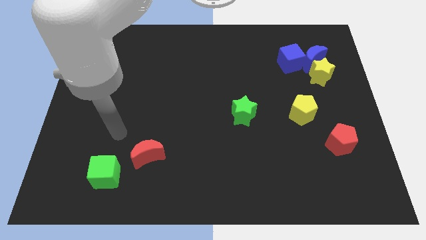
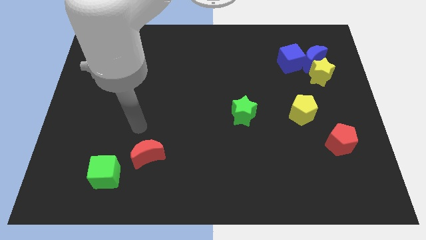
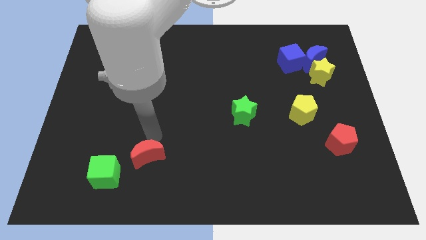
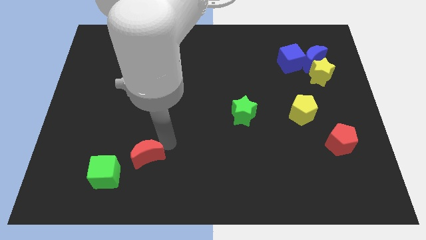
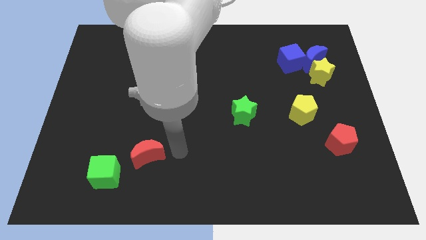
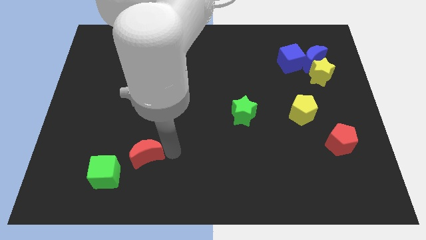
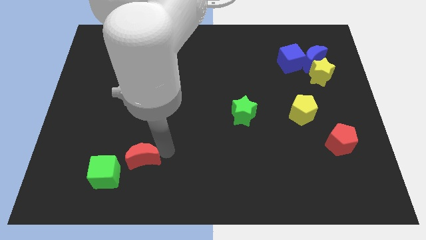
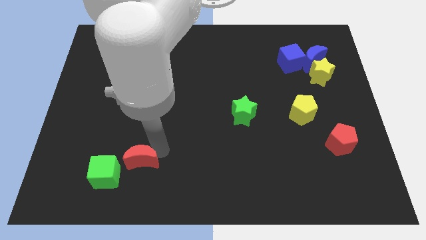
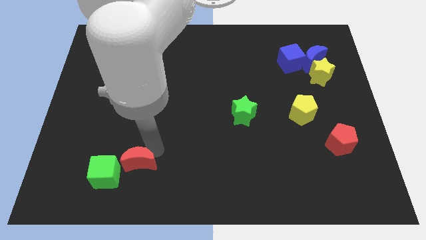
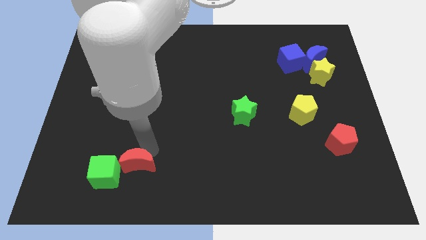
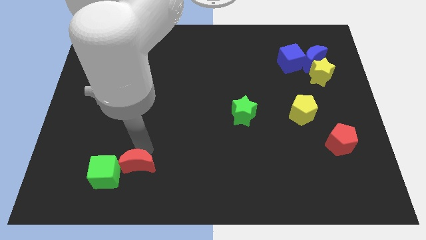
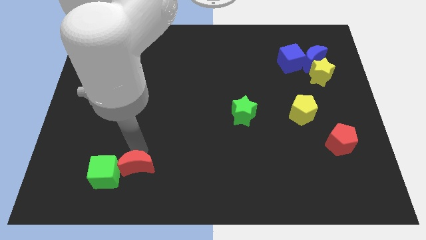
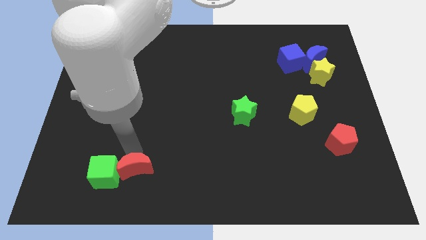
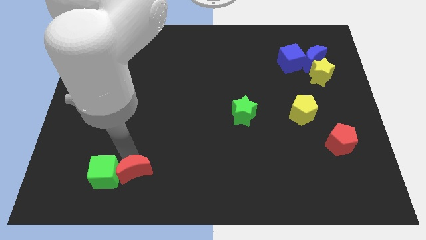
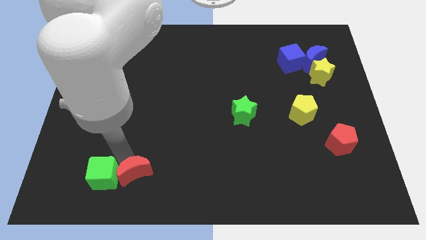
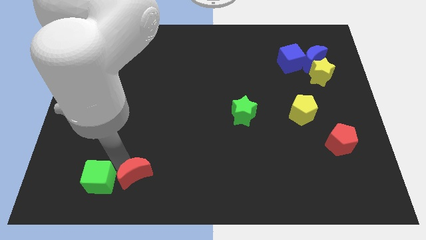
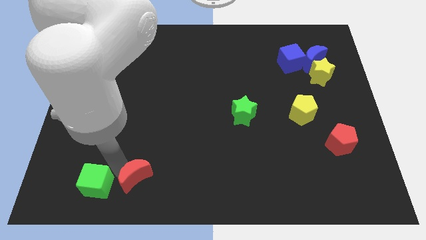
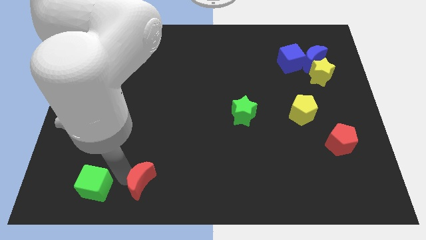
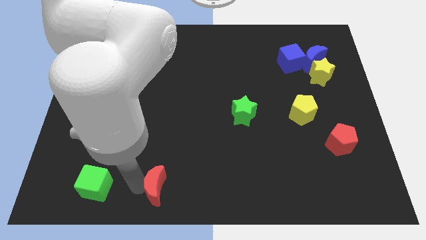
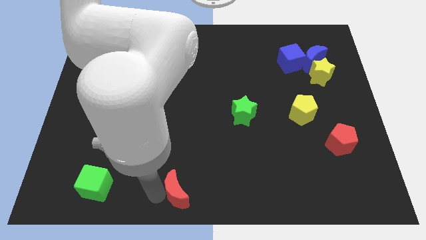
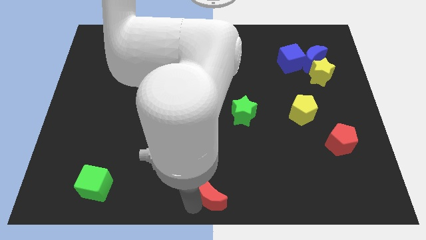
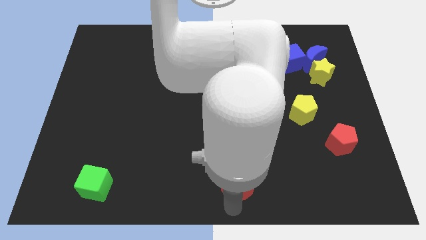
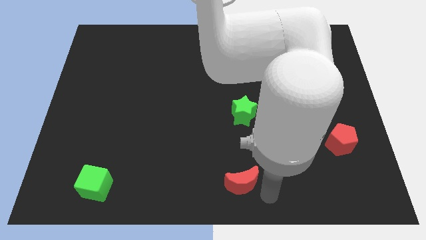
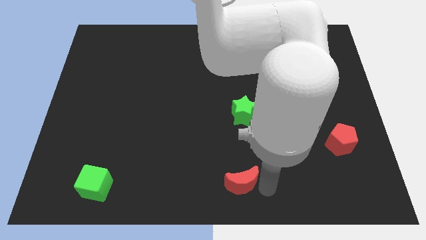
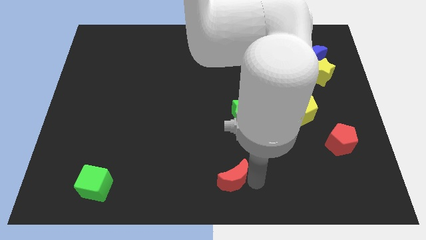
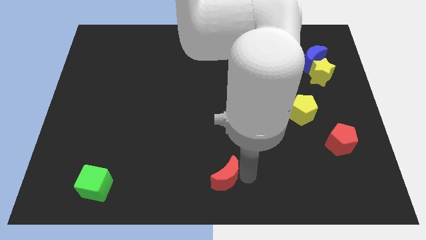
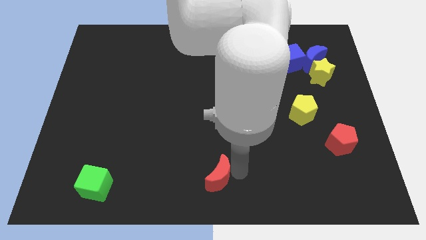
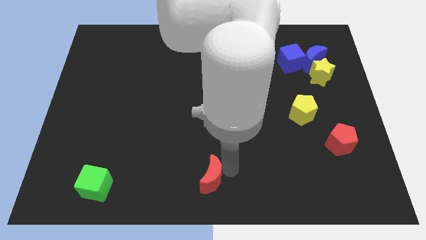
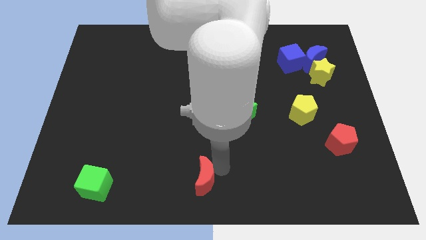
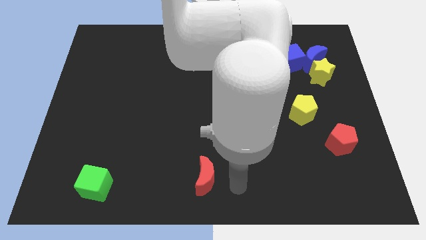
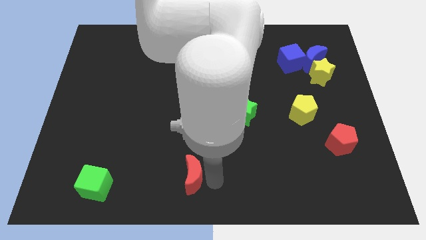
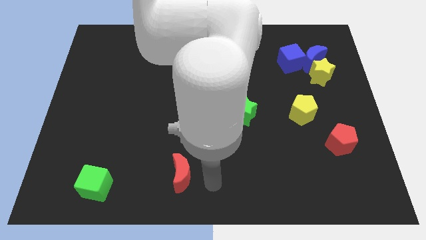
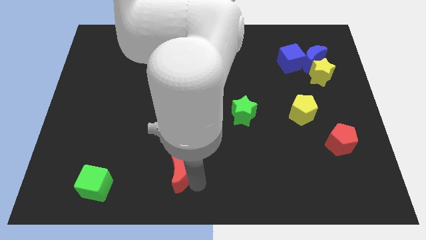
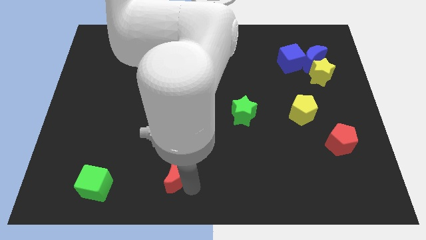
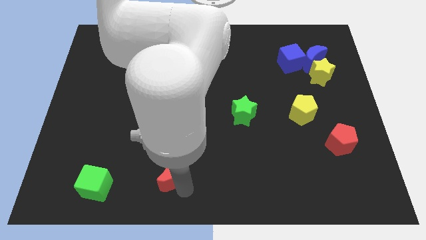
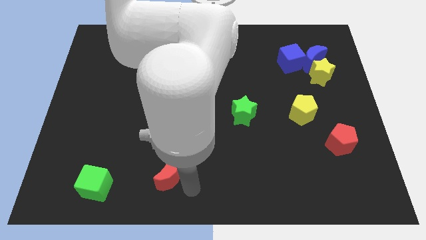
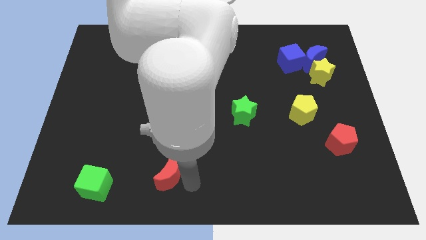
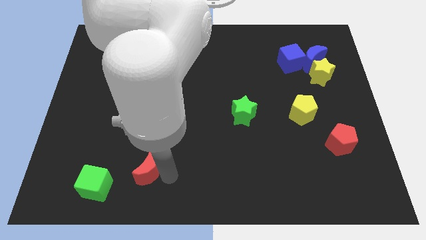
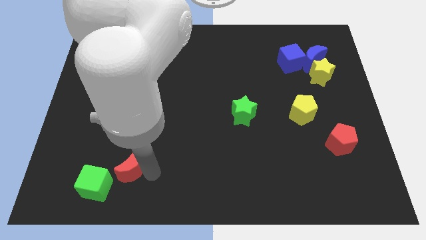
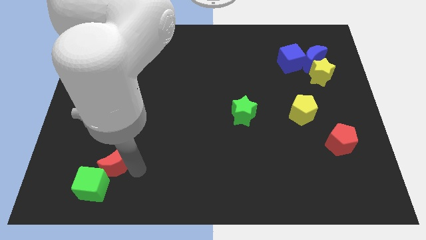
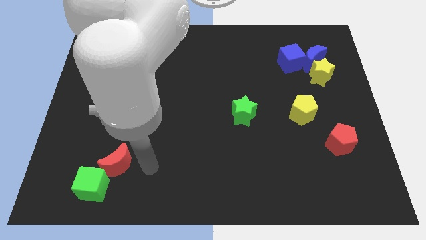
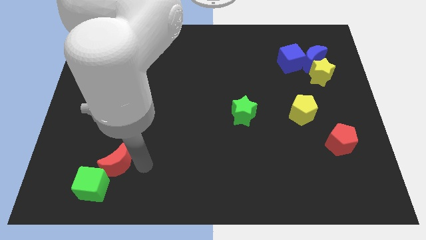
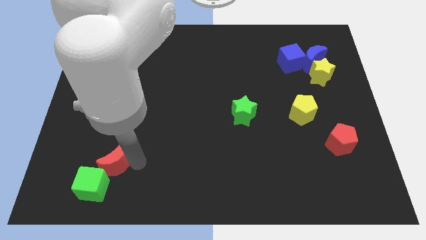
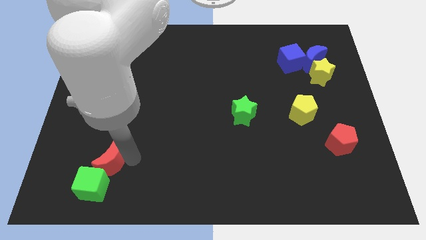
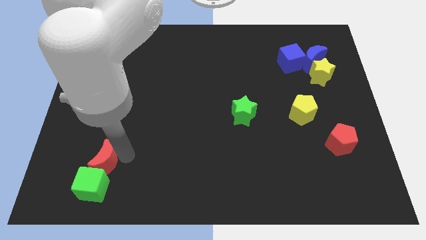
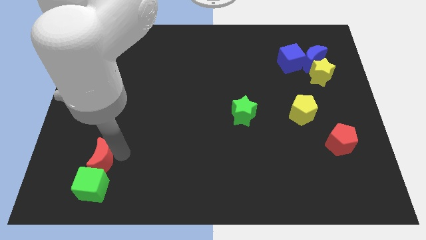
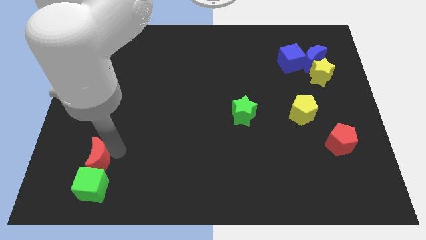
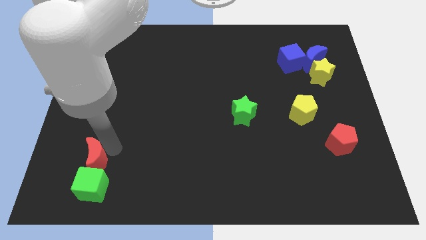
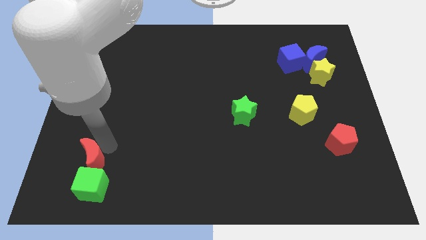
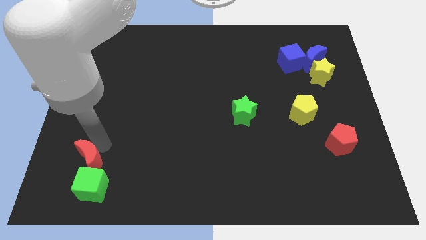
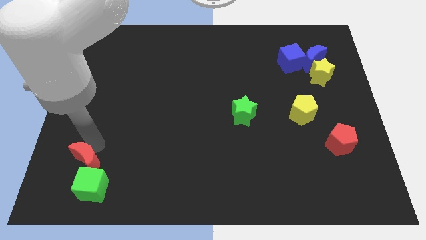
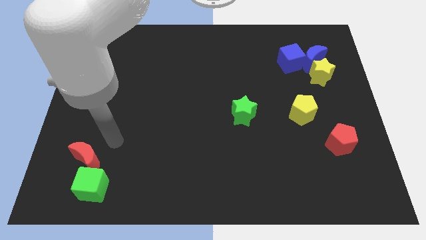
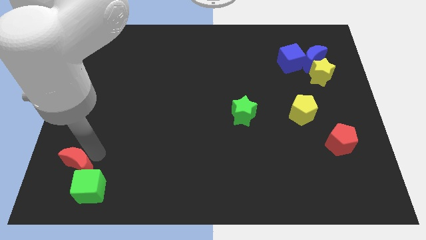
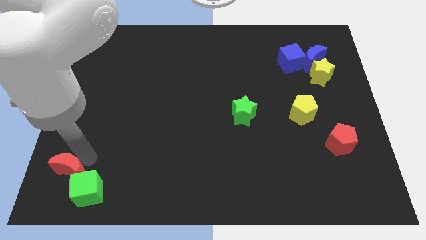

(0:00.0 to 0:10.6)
push the red moon to the lower left corner

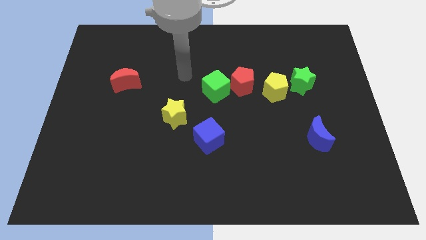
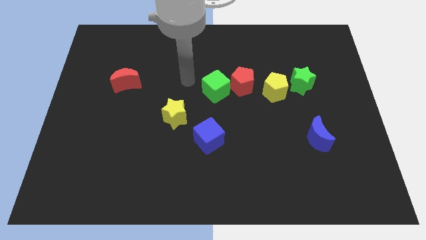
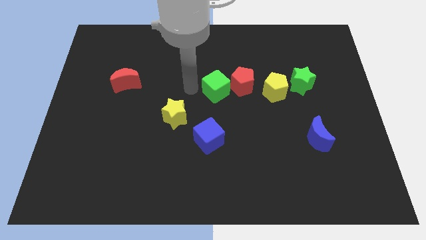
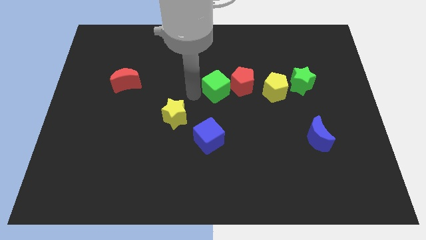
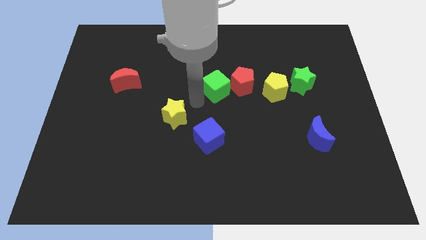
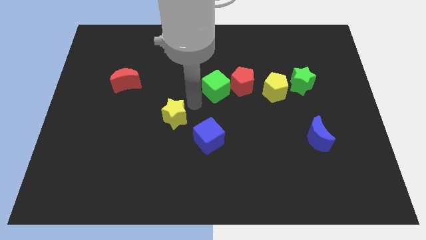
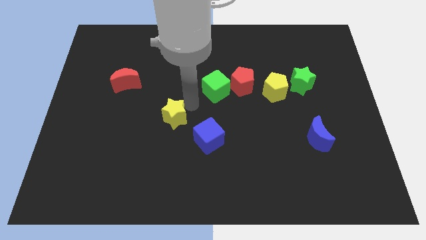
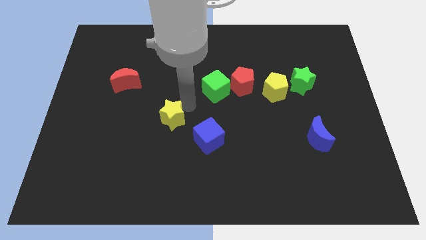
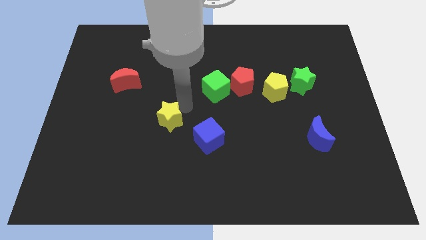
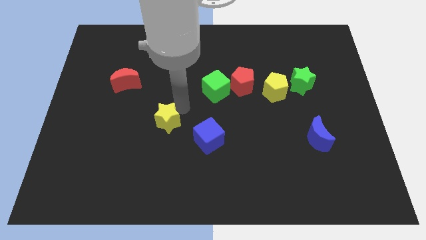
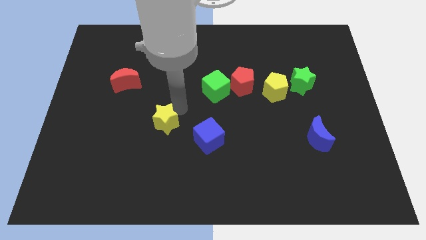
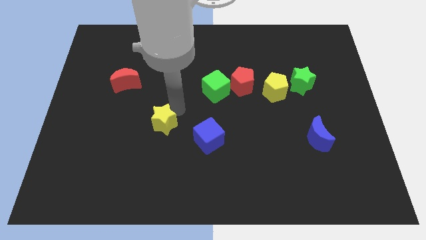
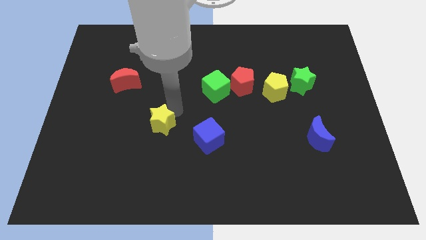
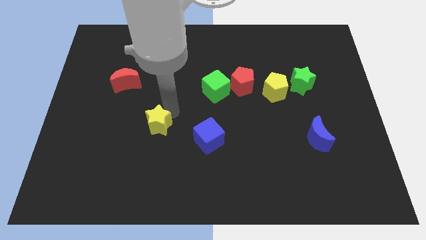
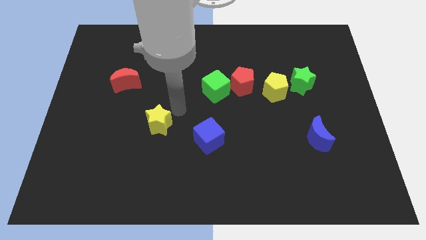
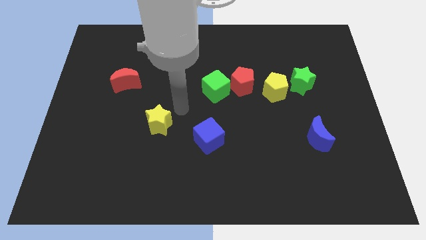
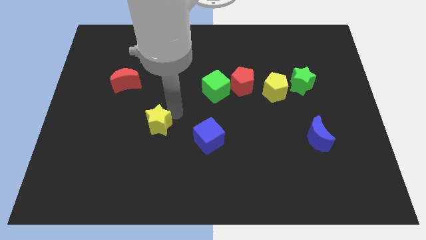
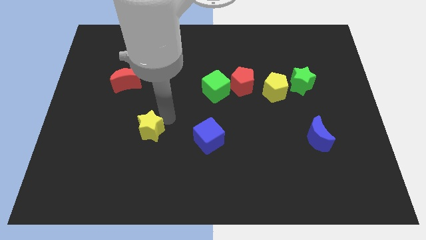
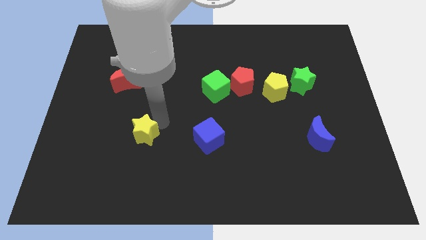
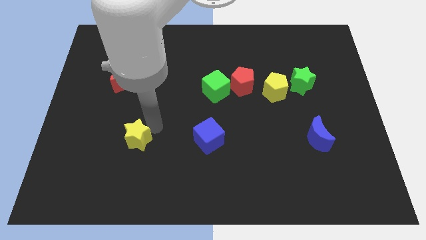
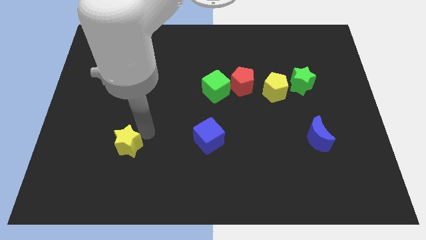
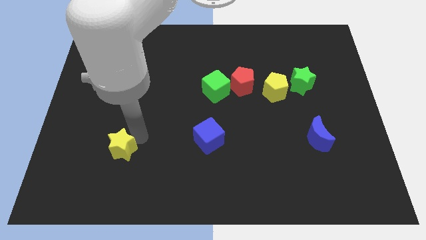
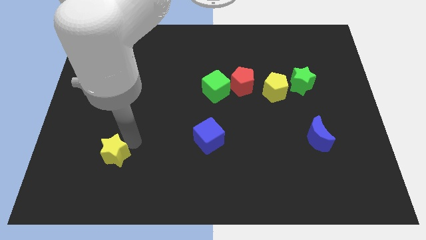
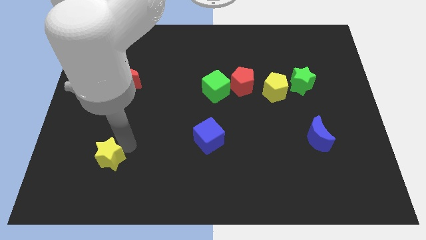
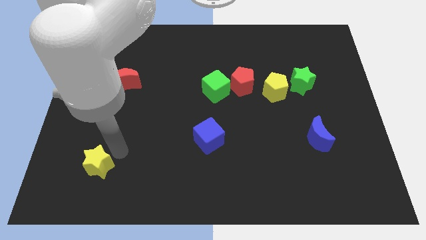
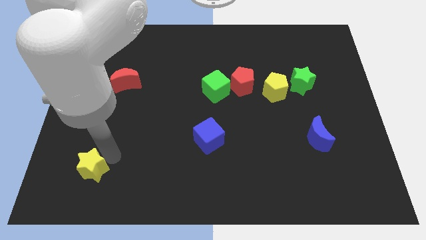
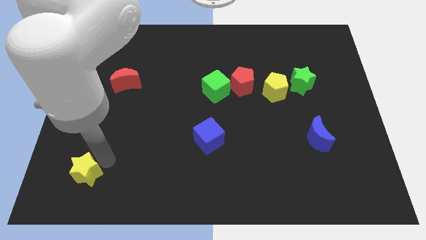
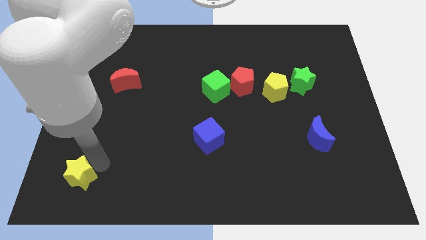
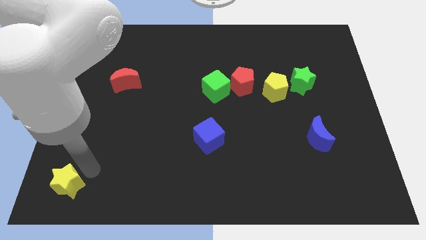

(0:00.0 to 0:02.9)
slide the yellow star to the bottom left of the board
